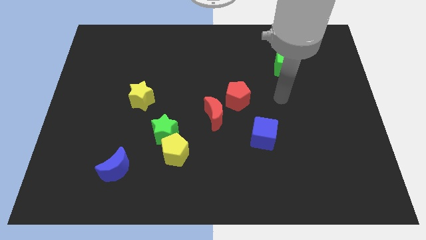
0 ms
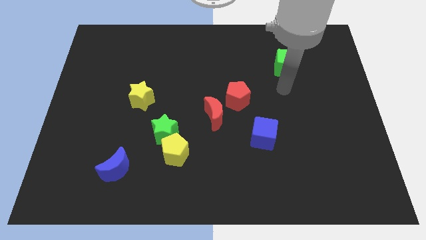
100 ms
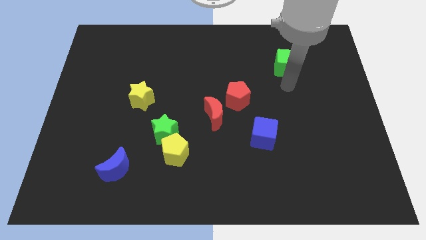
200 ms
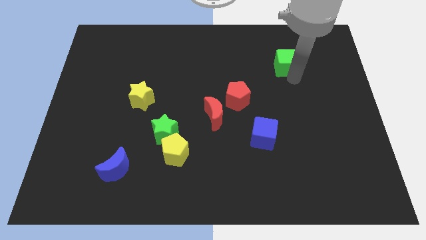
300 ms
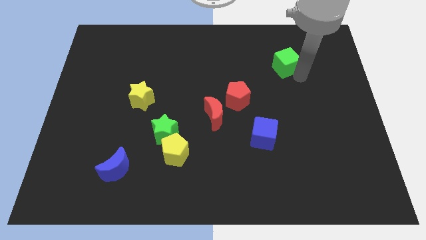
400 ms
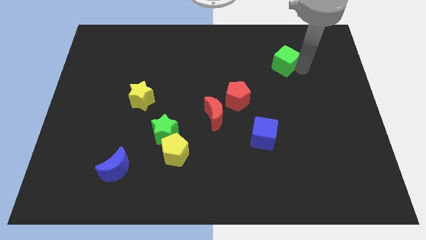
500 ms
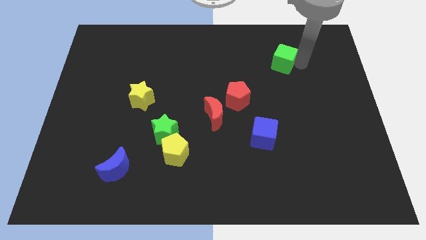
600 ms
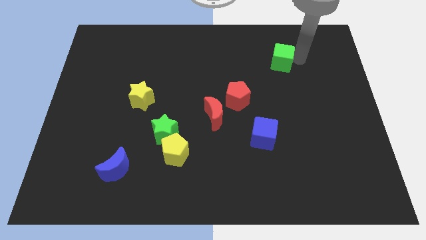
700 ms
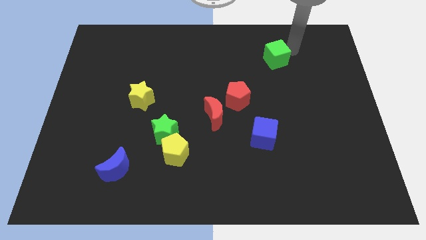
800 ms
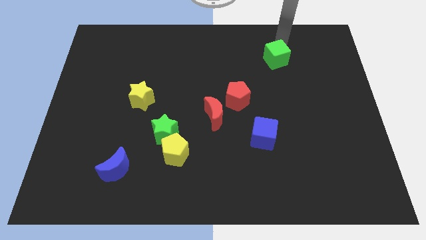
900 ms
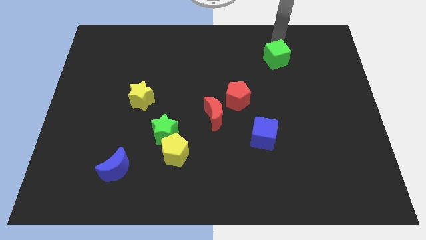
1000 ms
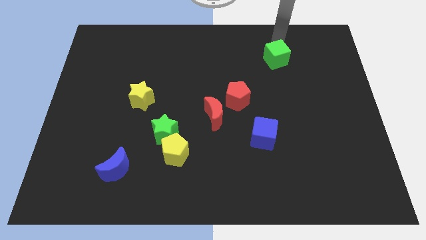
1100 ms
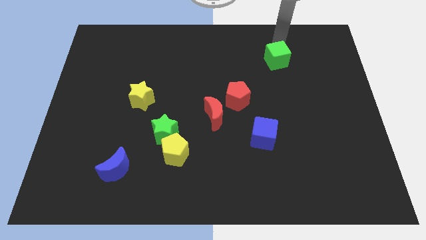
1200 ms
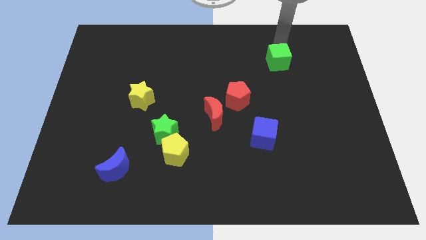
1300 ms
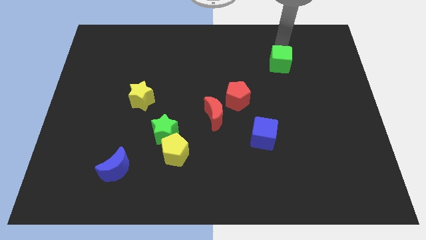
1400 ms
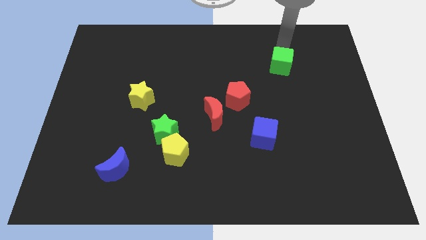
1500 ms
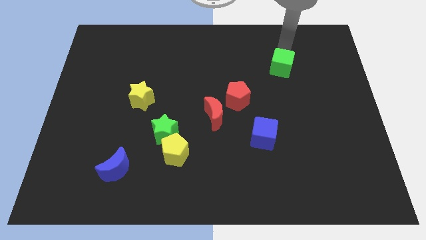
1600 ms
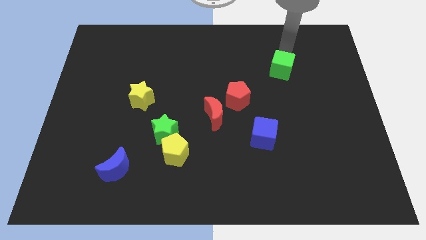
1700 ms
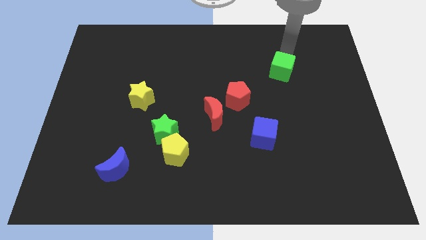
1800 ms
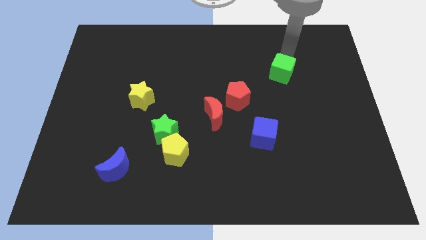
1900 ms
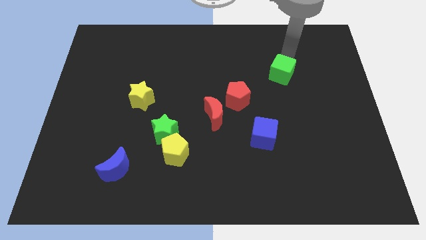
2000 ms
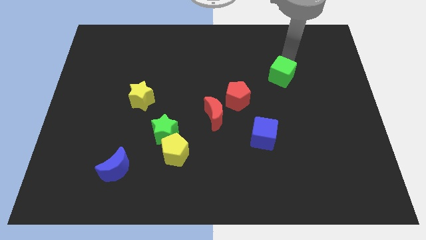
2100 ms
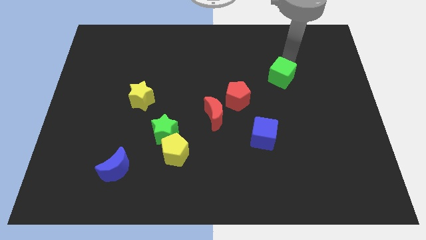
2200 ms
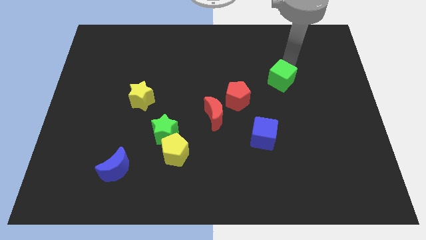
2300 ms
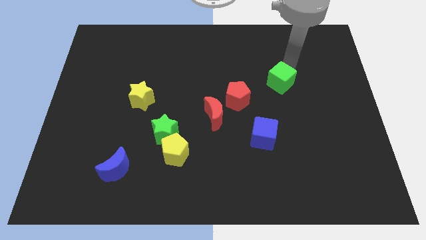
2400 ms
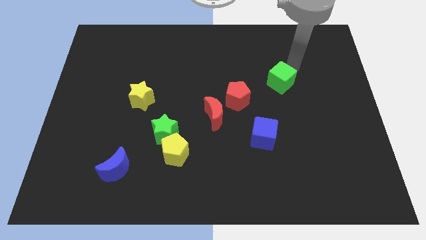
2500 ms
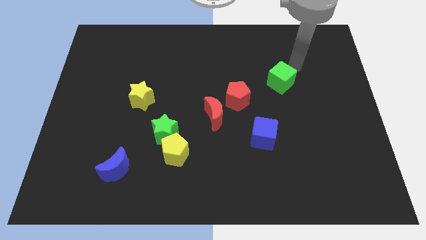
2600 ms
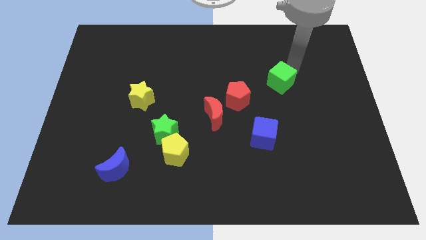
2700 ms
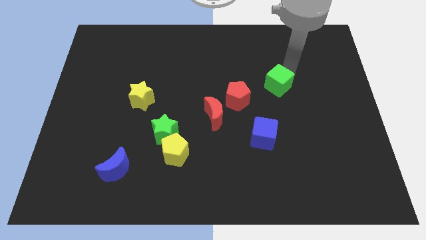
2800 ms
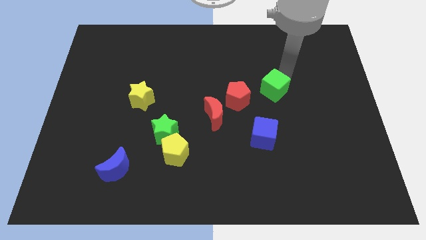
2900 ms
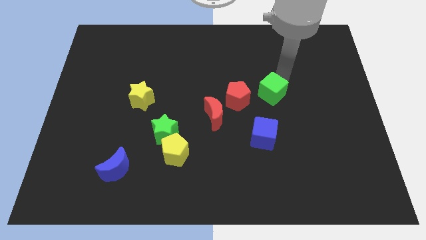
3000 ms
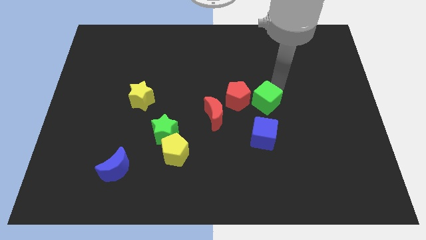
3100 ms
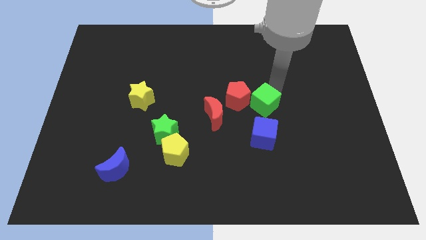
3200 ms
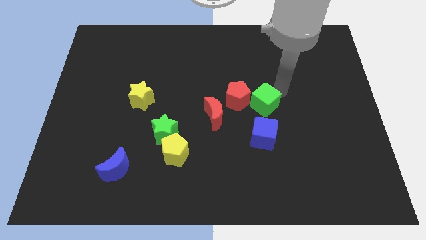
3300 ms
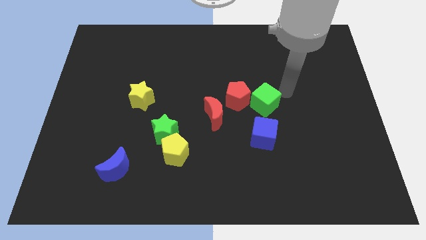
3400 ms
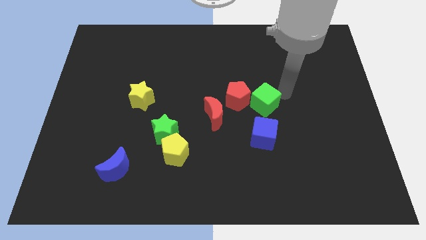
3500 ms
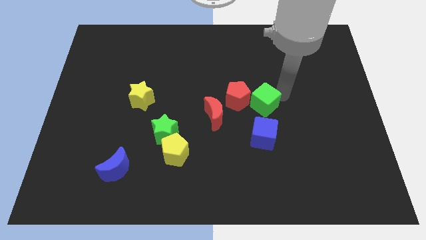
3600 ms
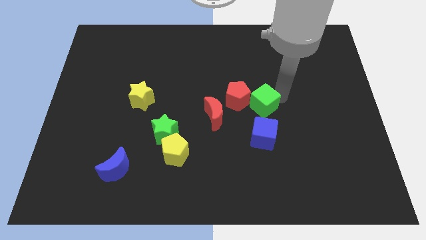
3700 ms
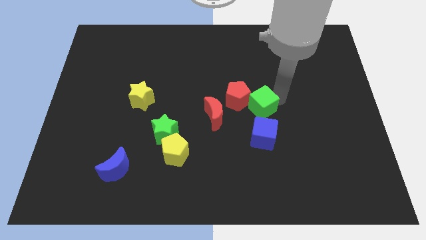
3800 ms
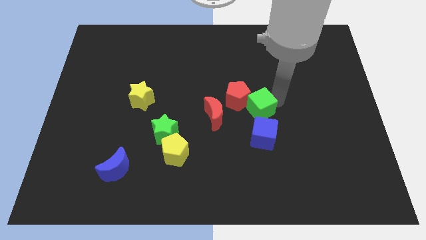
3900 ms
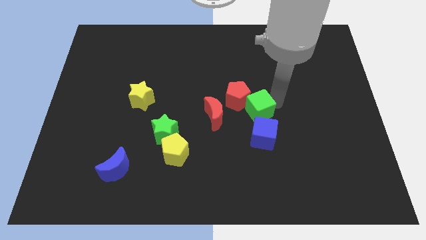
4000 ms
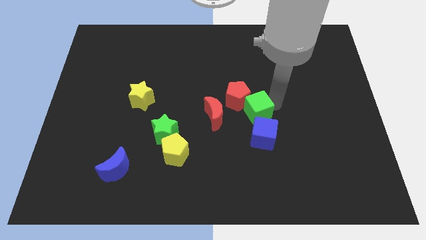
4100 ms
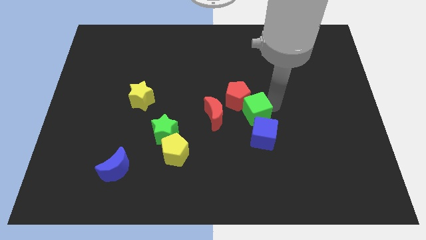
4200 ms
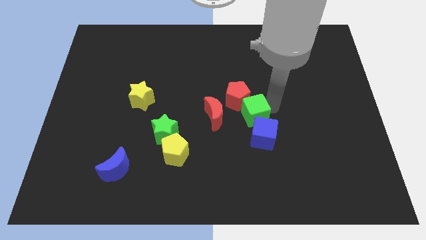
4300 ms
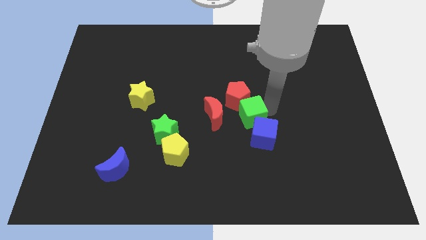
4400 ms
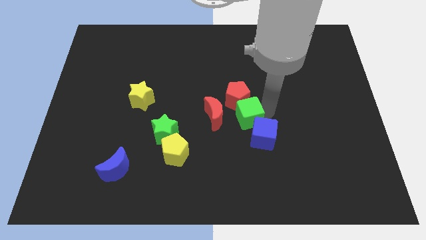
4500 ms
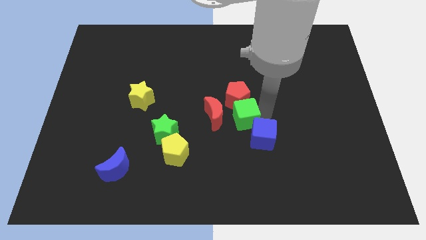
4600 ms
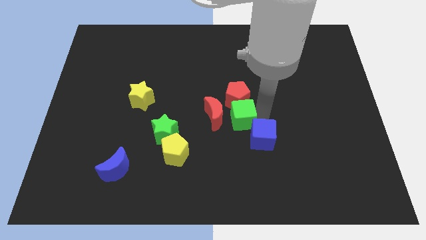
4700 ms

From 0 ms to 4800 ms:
slide the green cube next to the red moon

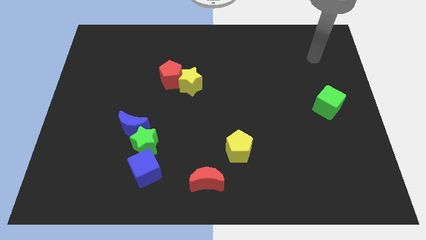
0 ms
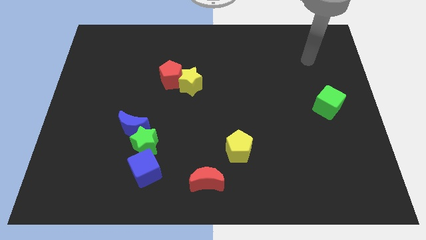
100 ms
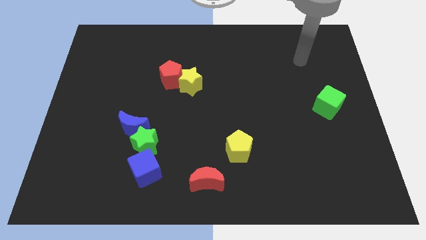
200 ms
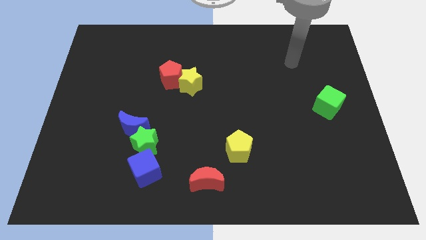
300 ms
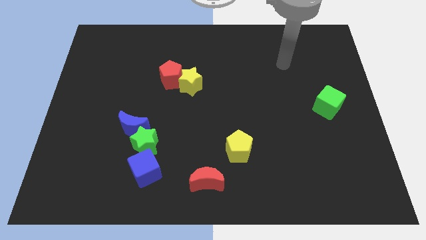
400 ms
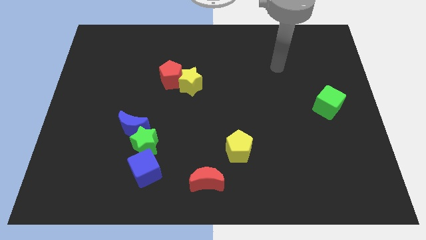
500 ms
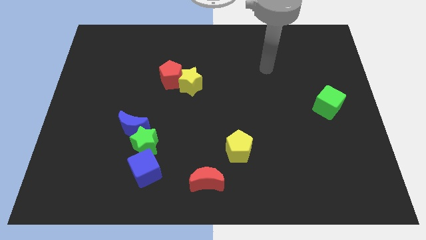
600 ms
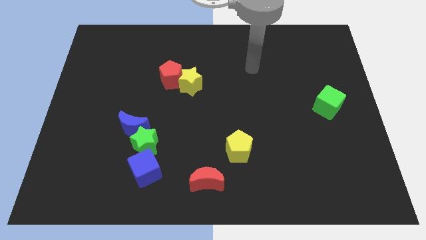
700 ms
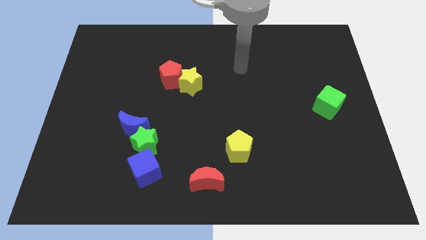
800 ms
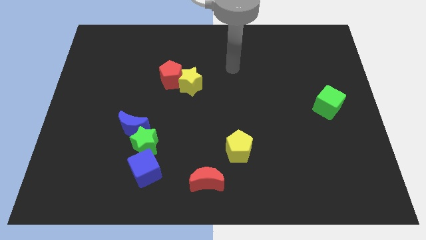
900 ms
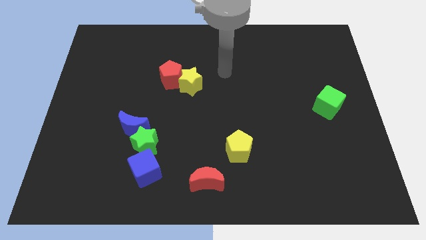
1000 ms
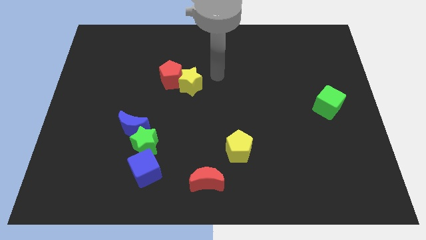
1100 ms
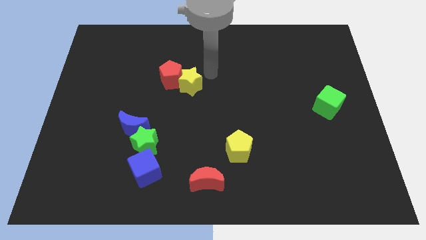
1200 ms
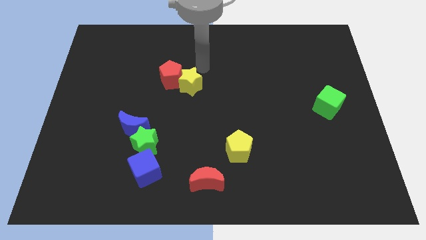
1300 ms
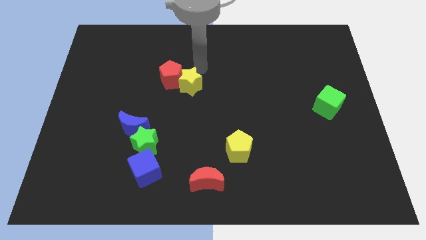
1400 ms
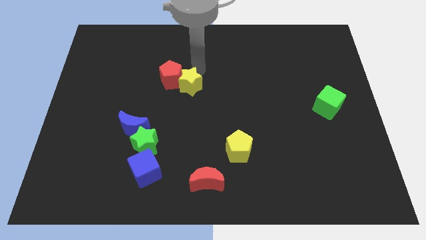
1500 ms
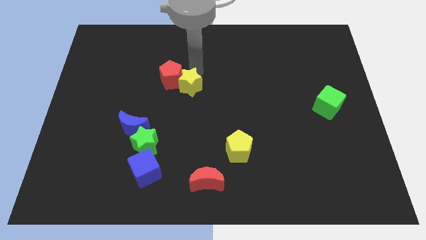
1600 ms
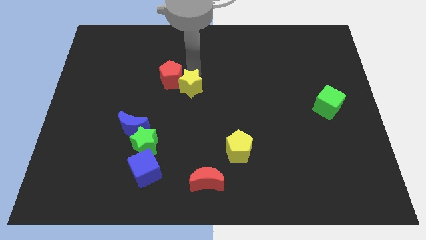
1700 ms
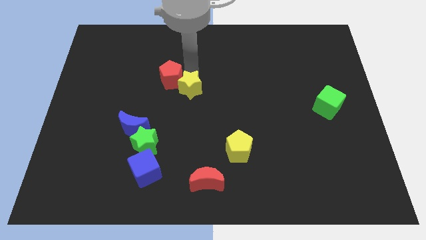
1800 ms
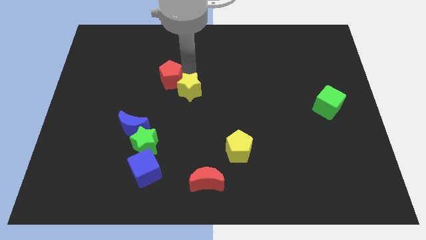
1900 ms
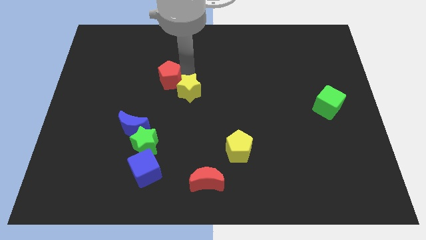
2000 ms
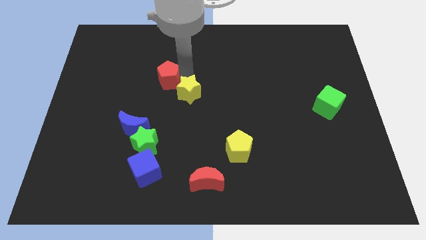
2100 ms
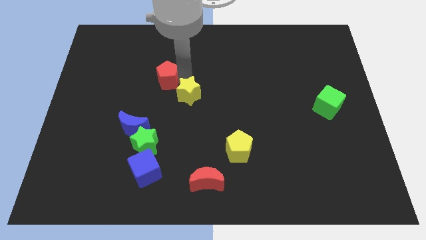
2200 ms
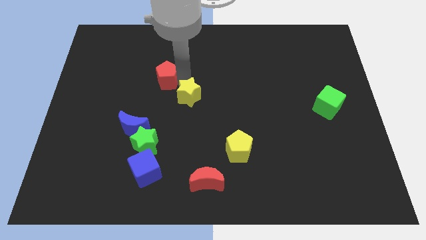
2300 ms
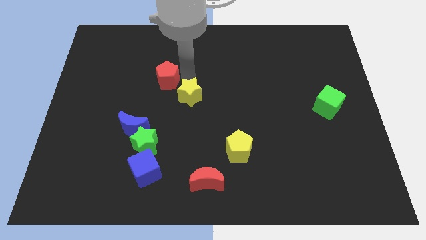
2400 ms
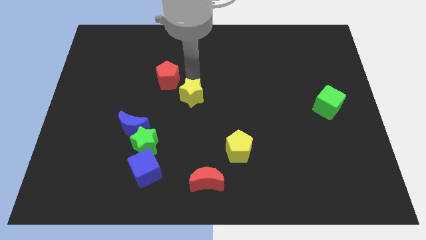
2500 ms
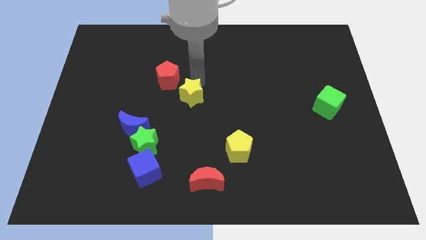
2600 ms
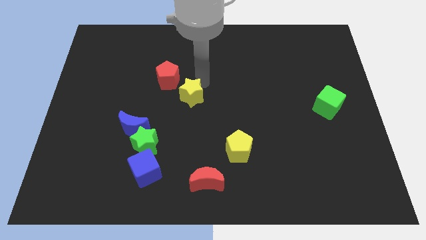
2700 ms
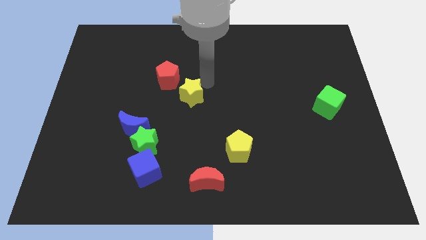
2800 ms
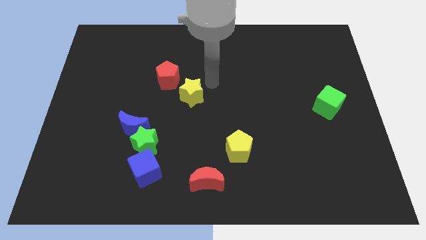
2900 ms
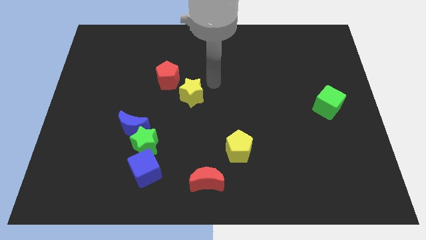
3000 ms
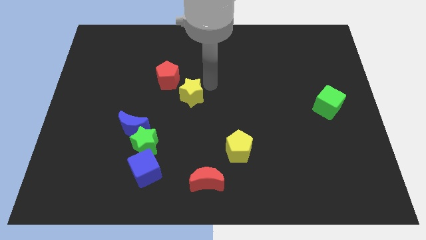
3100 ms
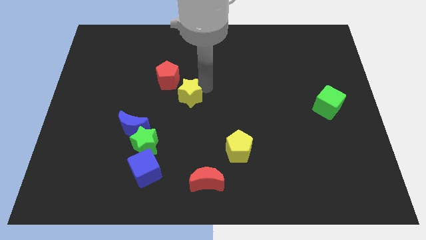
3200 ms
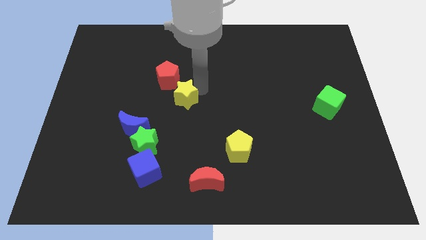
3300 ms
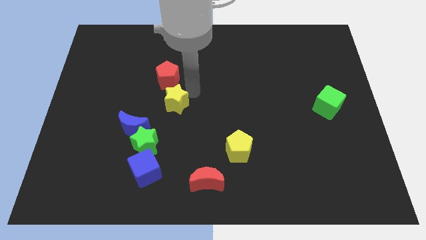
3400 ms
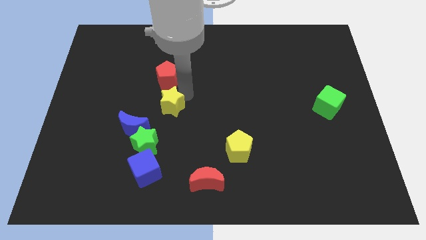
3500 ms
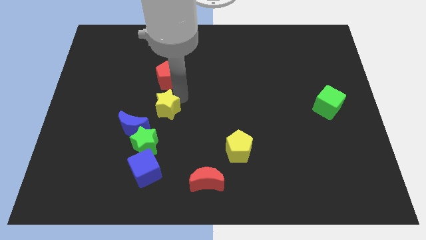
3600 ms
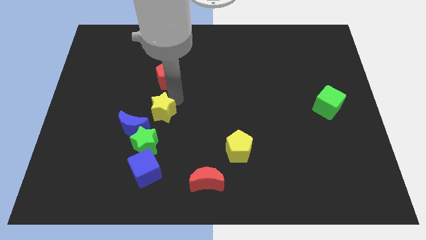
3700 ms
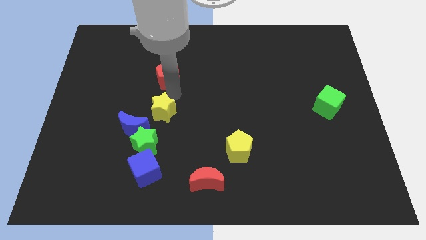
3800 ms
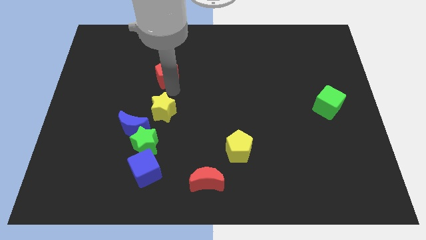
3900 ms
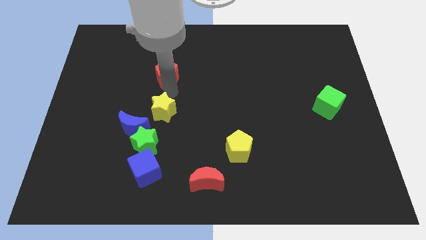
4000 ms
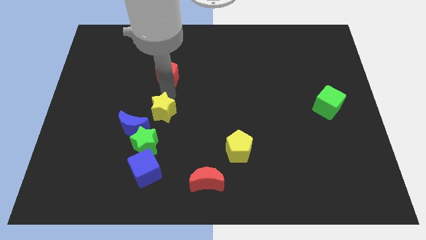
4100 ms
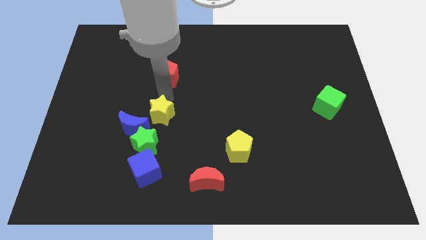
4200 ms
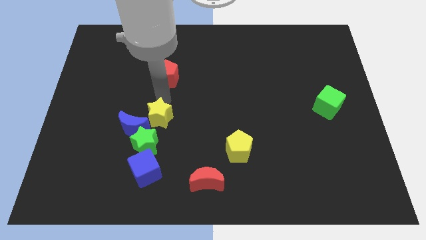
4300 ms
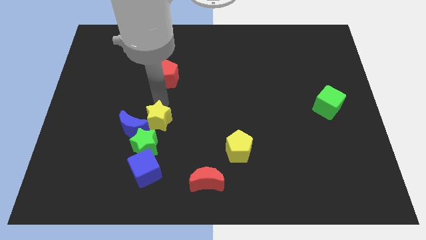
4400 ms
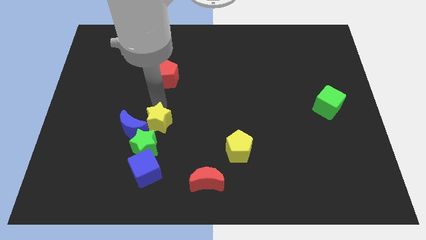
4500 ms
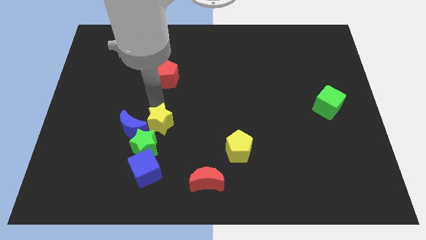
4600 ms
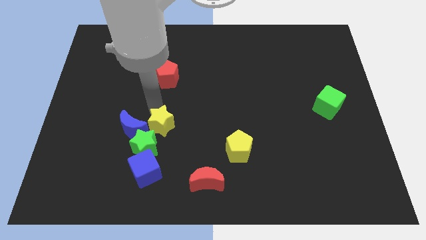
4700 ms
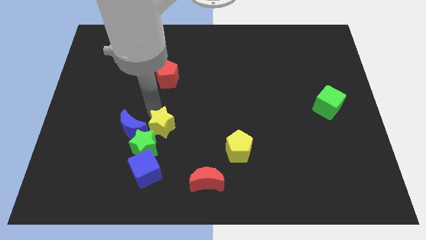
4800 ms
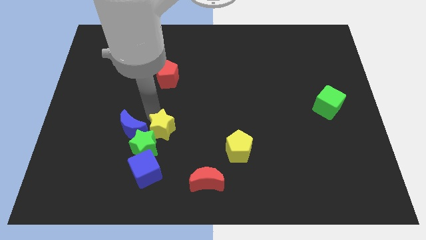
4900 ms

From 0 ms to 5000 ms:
move the yellow star next to the green star
